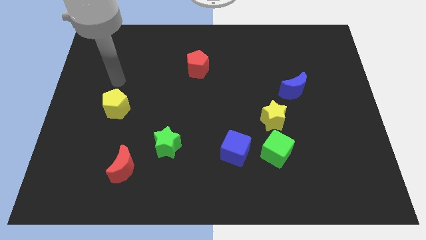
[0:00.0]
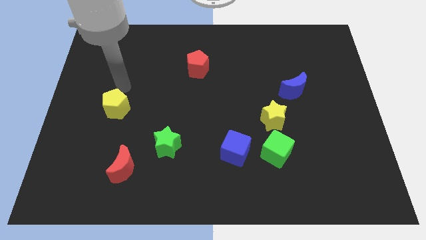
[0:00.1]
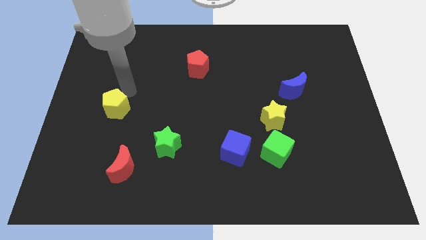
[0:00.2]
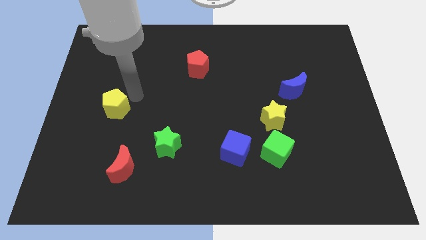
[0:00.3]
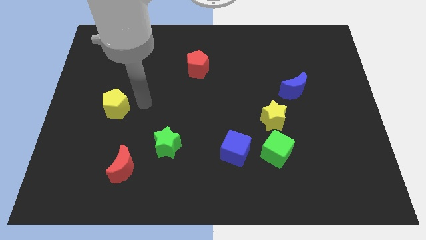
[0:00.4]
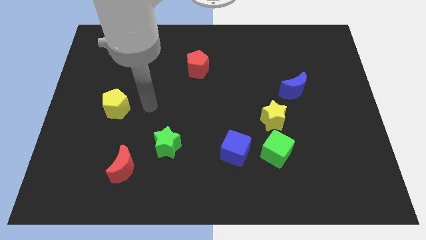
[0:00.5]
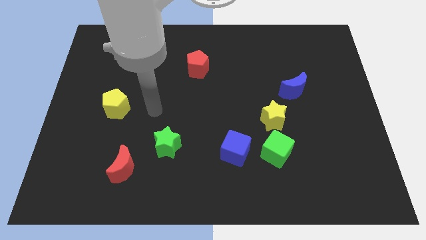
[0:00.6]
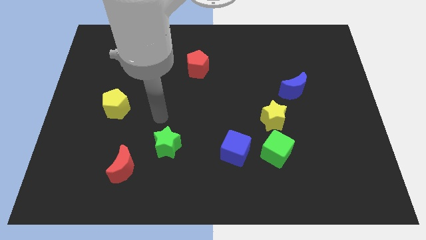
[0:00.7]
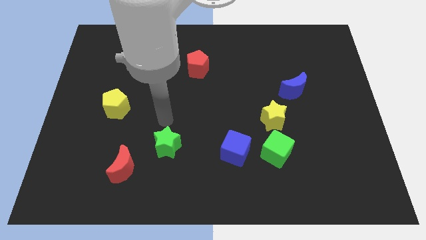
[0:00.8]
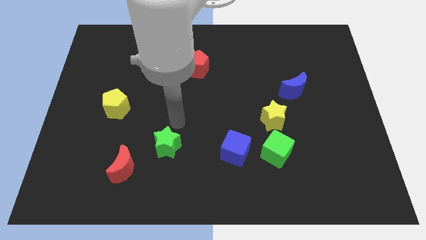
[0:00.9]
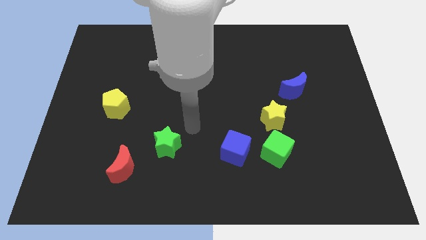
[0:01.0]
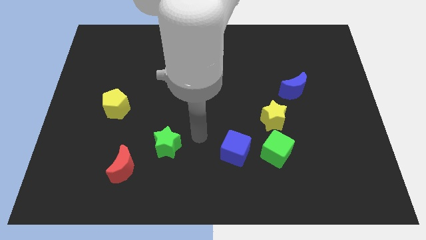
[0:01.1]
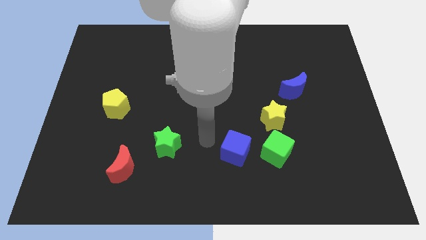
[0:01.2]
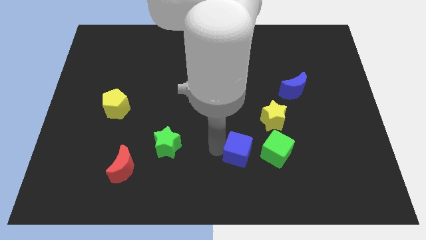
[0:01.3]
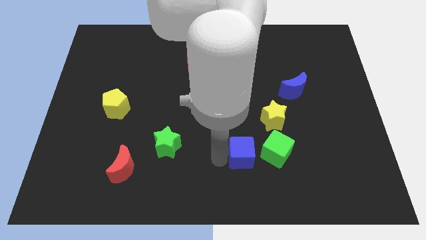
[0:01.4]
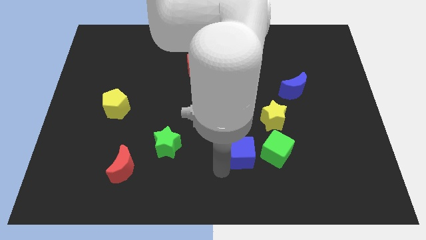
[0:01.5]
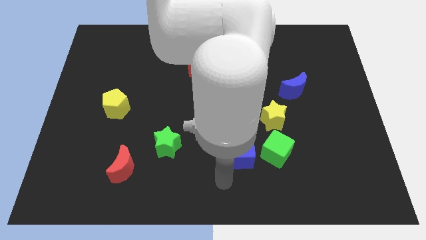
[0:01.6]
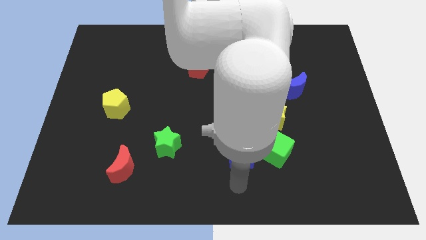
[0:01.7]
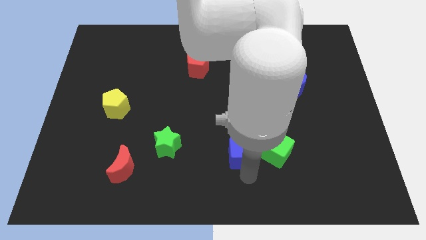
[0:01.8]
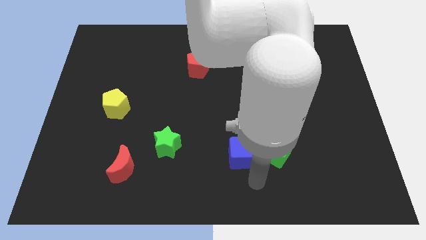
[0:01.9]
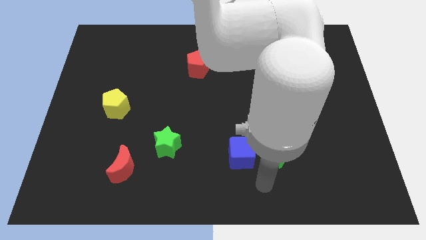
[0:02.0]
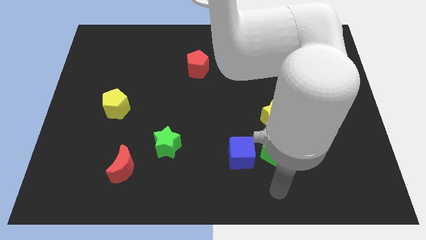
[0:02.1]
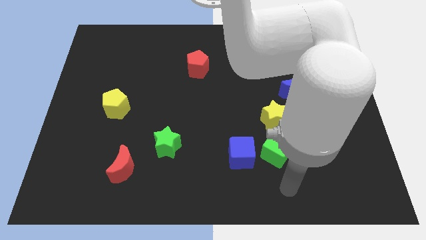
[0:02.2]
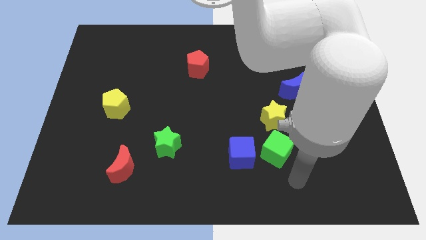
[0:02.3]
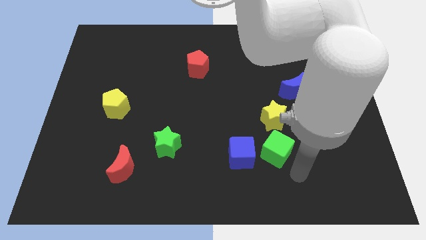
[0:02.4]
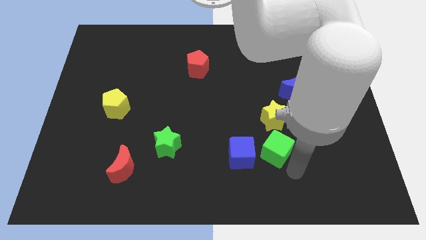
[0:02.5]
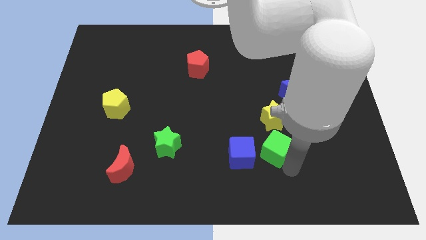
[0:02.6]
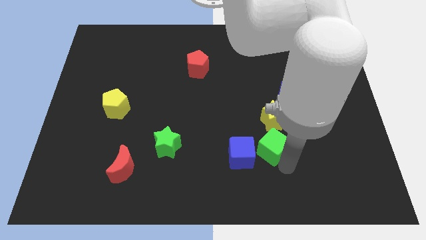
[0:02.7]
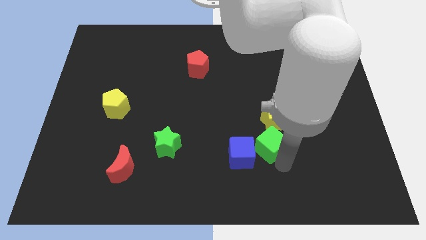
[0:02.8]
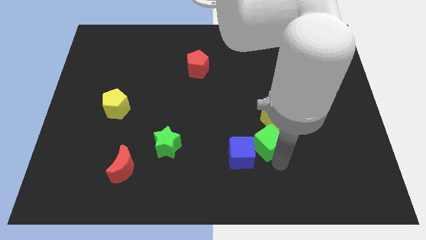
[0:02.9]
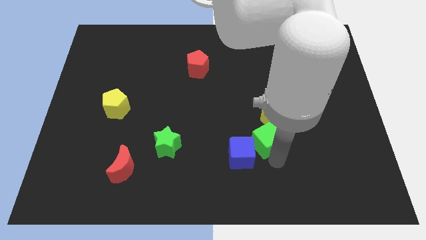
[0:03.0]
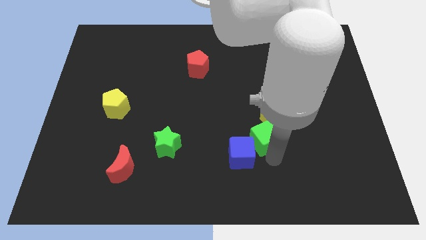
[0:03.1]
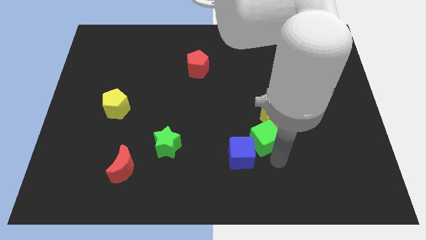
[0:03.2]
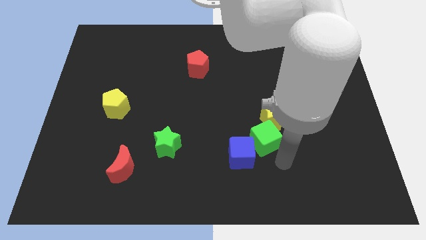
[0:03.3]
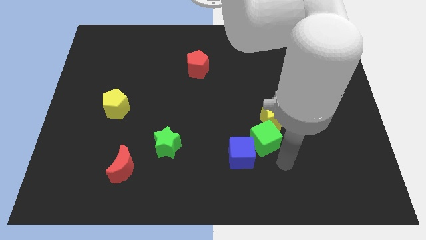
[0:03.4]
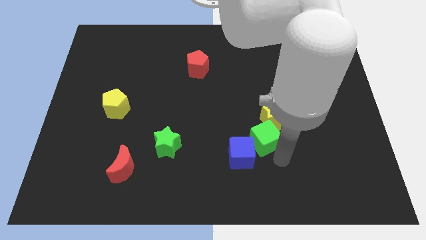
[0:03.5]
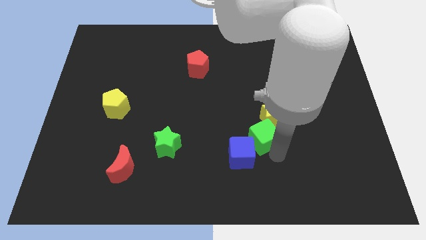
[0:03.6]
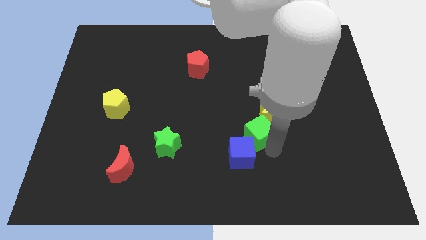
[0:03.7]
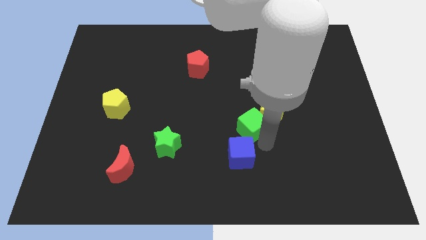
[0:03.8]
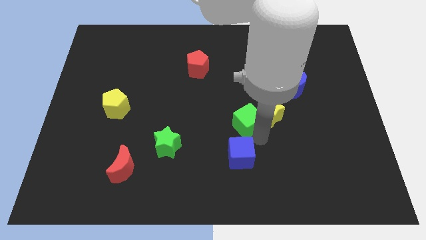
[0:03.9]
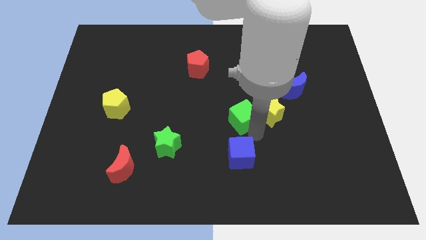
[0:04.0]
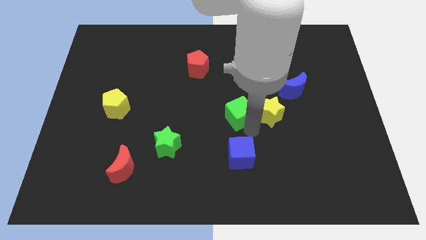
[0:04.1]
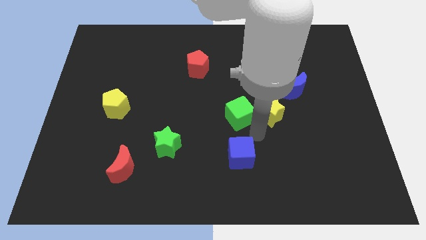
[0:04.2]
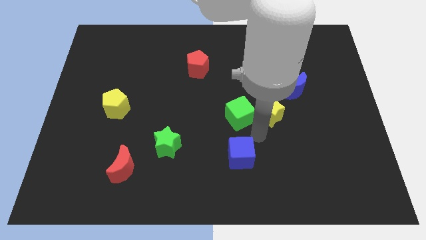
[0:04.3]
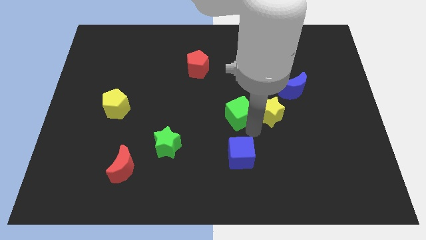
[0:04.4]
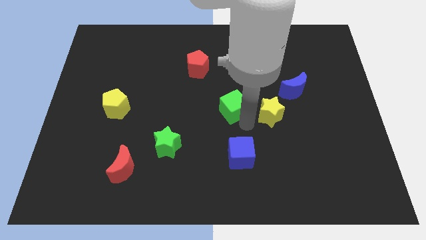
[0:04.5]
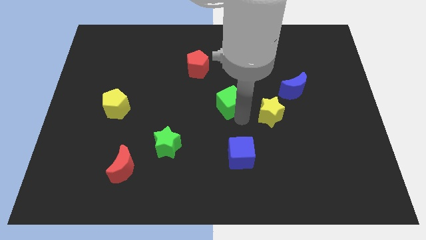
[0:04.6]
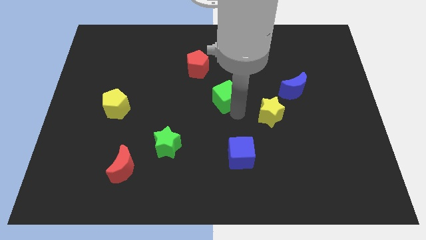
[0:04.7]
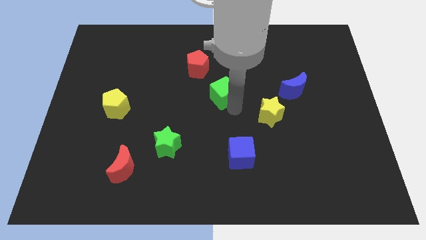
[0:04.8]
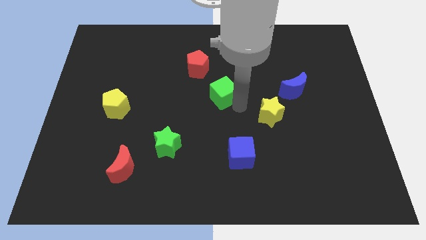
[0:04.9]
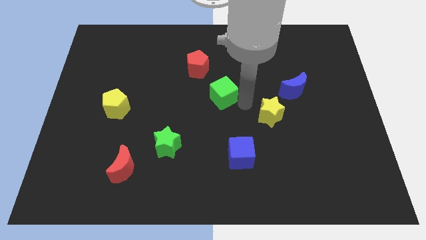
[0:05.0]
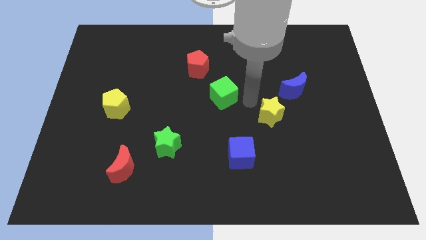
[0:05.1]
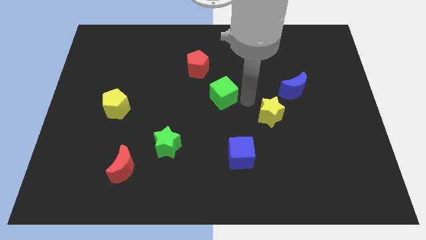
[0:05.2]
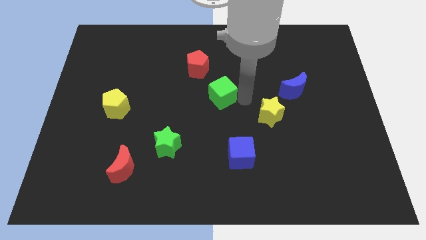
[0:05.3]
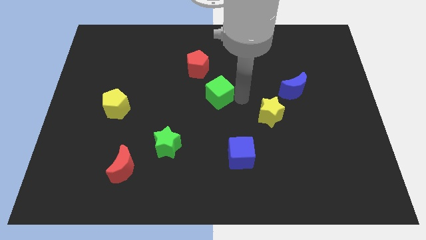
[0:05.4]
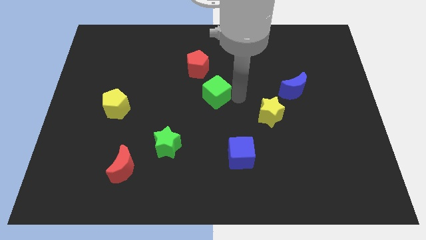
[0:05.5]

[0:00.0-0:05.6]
move the green cube upwards and to the left

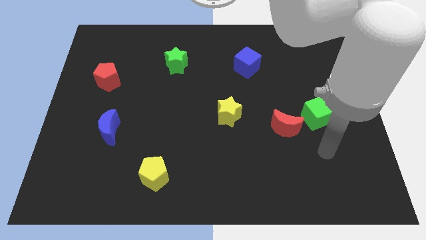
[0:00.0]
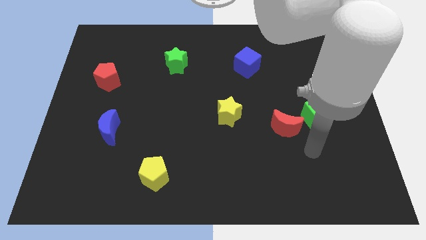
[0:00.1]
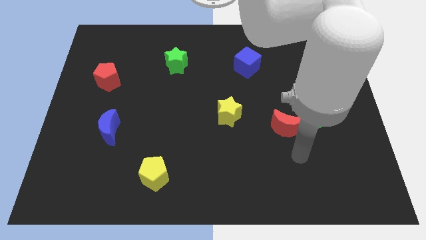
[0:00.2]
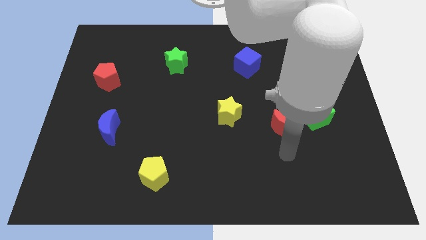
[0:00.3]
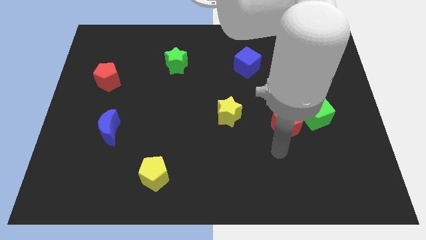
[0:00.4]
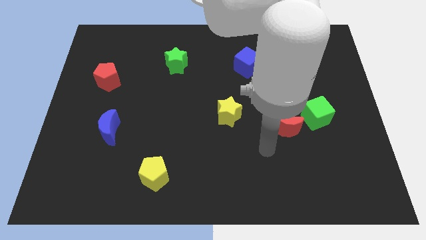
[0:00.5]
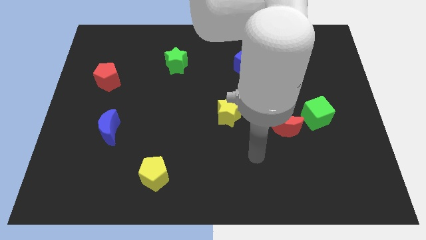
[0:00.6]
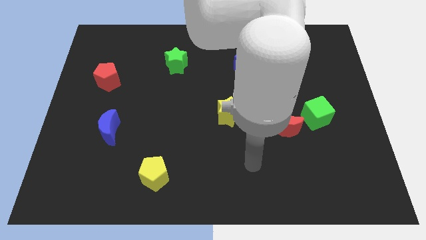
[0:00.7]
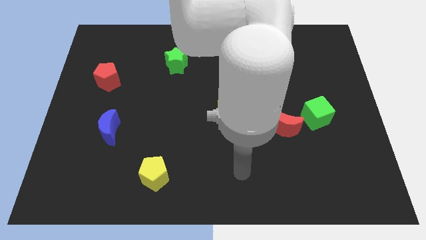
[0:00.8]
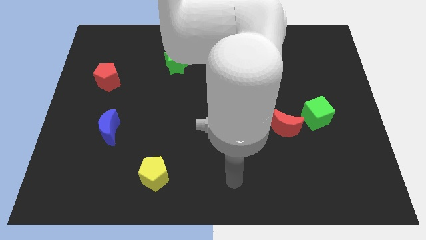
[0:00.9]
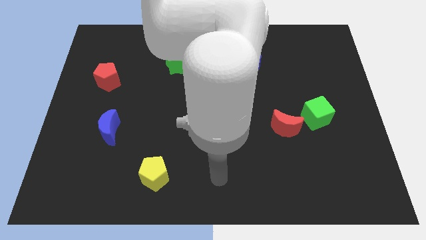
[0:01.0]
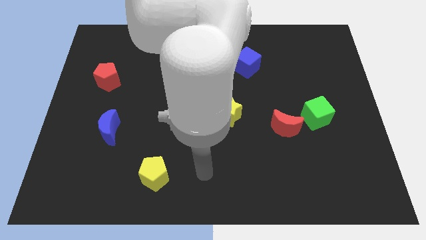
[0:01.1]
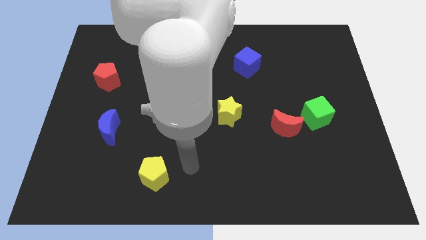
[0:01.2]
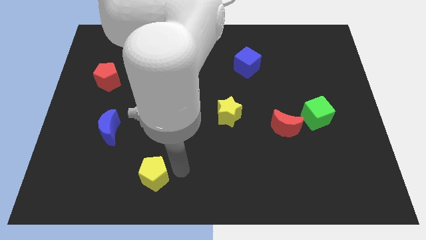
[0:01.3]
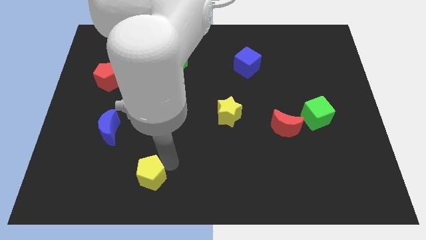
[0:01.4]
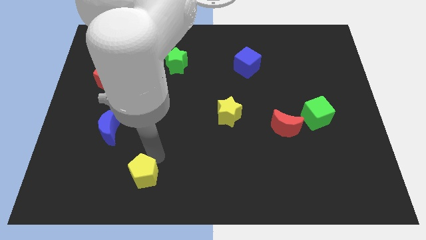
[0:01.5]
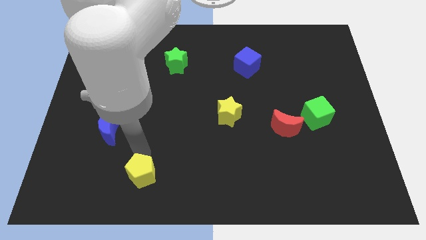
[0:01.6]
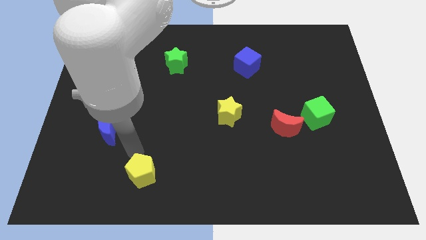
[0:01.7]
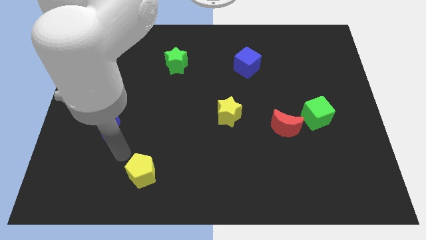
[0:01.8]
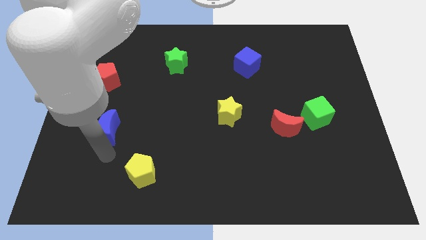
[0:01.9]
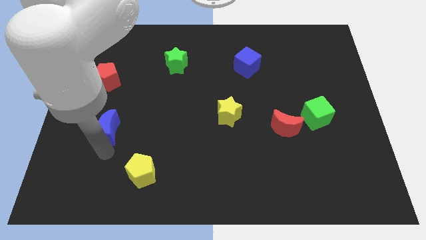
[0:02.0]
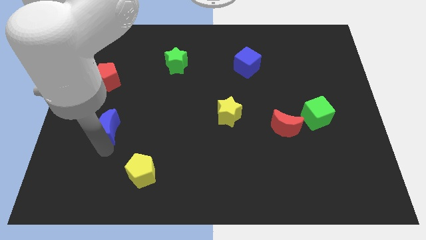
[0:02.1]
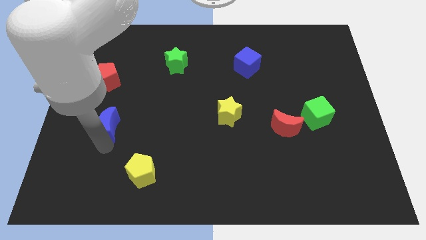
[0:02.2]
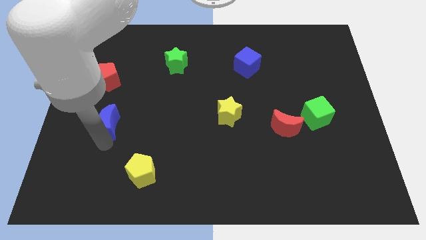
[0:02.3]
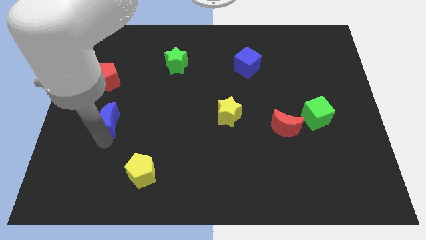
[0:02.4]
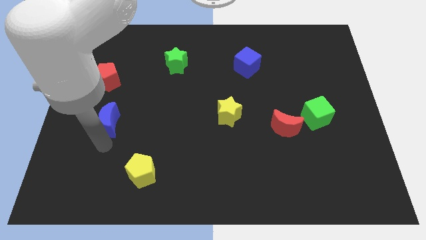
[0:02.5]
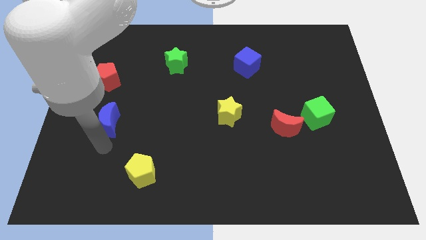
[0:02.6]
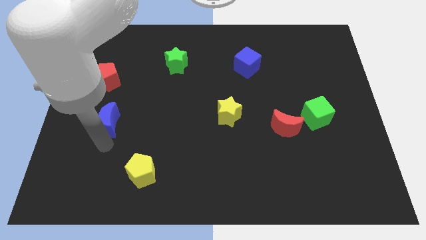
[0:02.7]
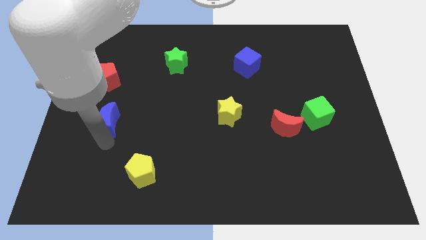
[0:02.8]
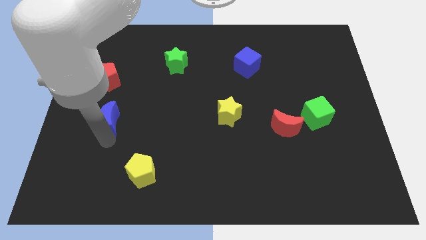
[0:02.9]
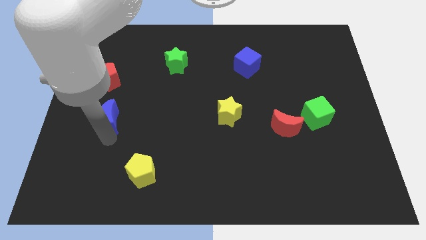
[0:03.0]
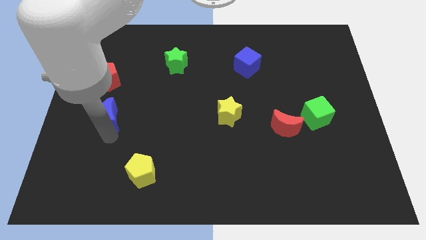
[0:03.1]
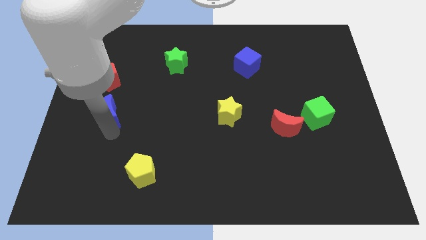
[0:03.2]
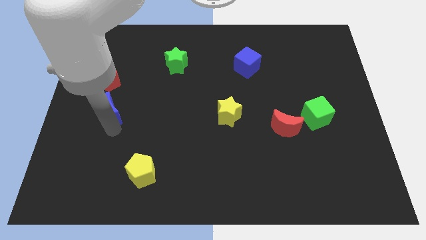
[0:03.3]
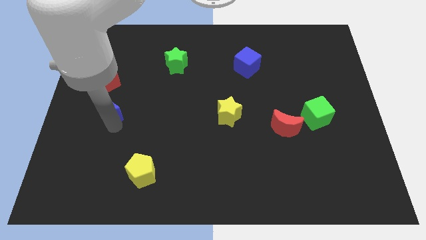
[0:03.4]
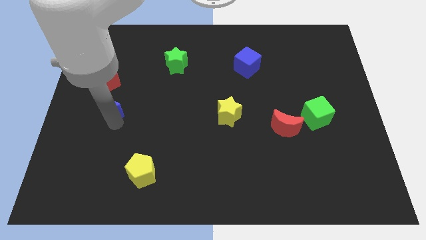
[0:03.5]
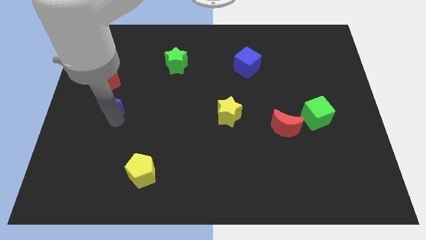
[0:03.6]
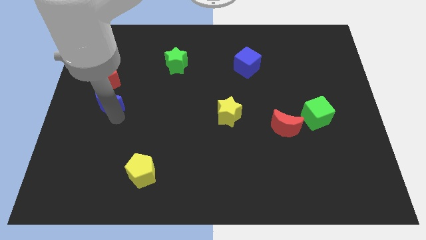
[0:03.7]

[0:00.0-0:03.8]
slightly slide the blue moon upwards
